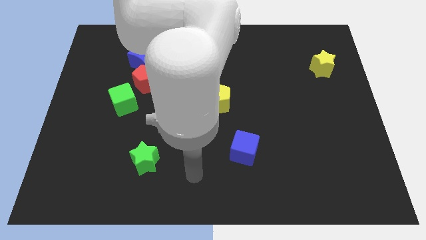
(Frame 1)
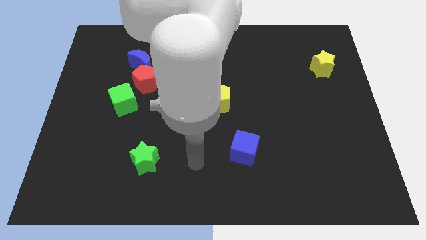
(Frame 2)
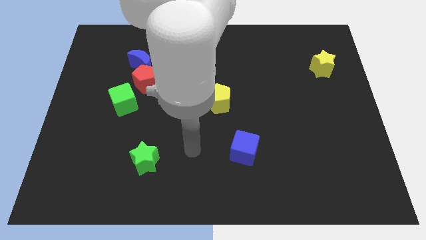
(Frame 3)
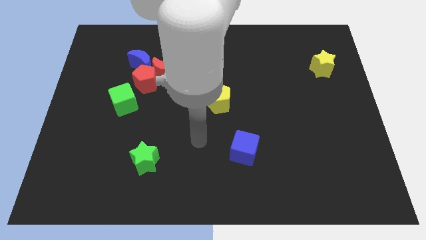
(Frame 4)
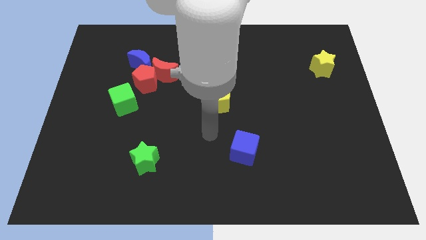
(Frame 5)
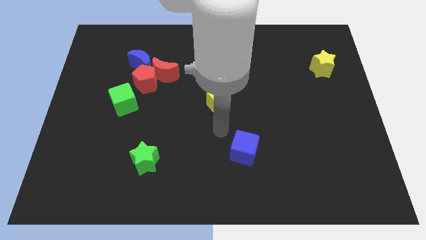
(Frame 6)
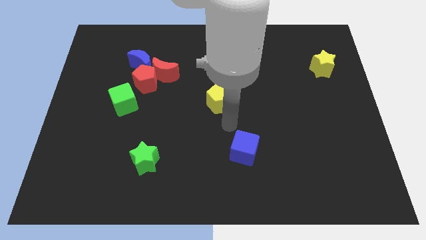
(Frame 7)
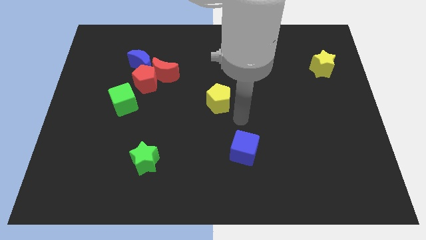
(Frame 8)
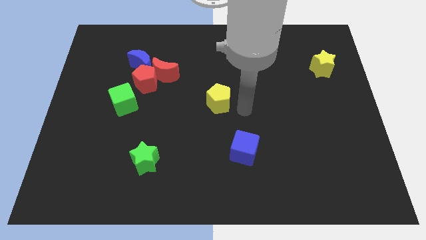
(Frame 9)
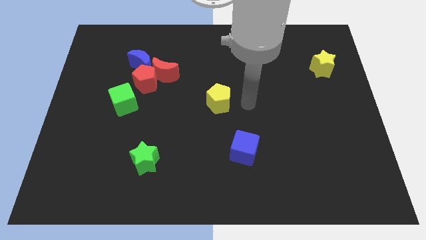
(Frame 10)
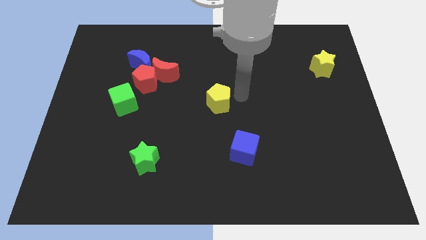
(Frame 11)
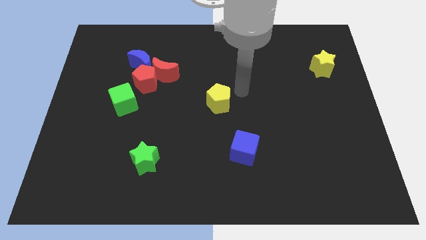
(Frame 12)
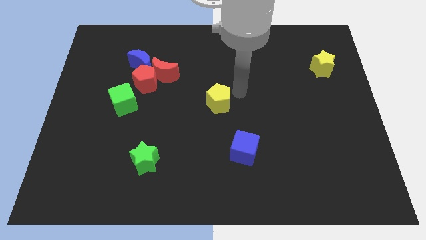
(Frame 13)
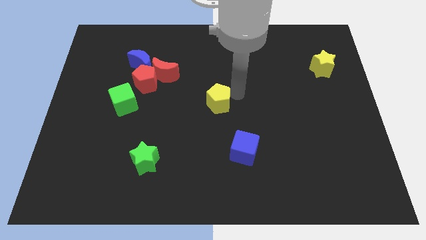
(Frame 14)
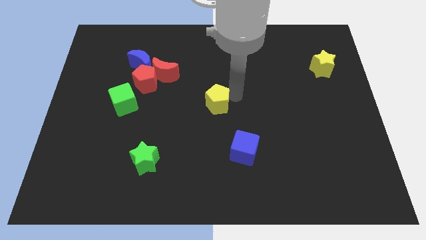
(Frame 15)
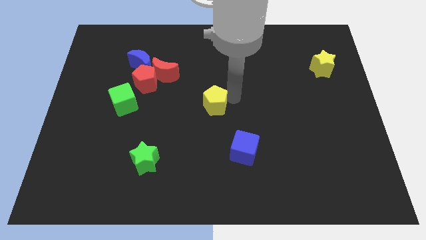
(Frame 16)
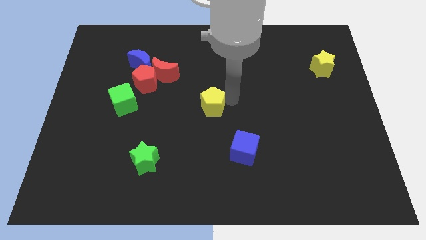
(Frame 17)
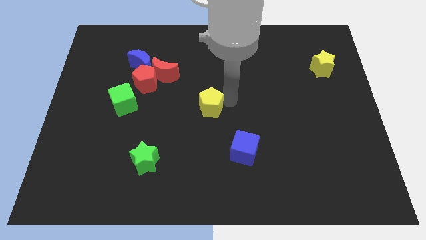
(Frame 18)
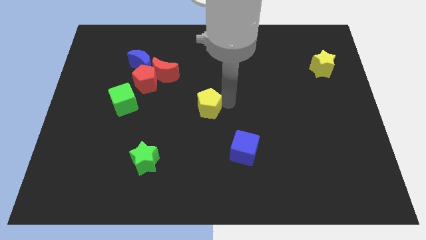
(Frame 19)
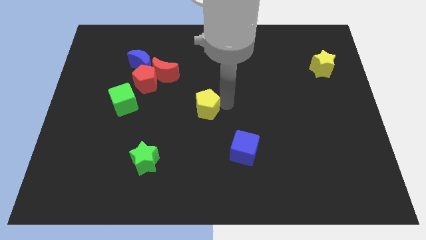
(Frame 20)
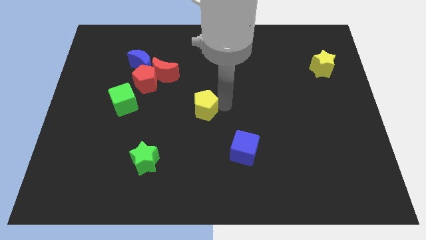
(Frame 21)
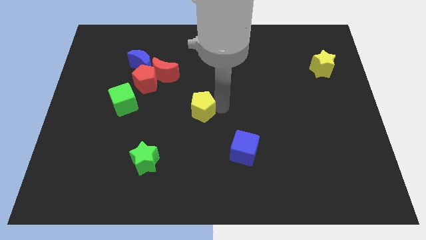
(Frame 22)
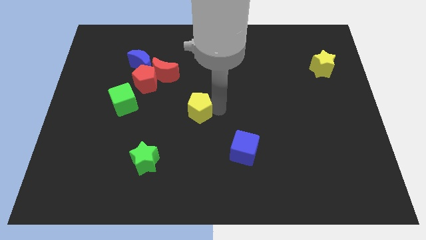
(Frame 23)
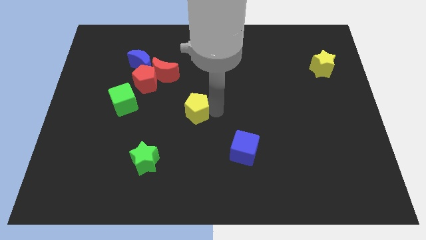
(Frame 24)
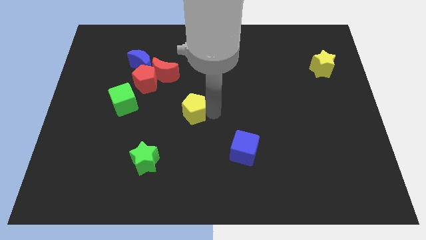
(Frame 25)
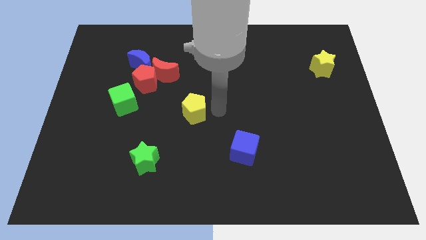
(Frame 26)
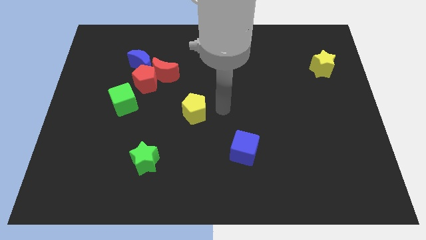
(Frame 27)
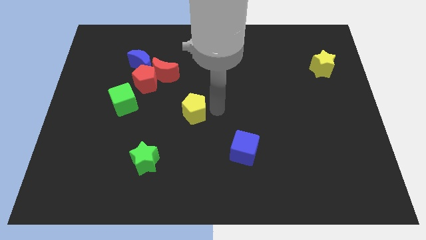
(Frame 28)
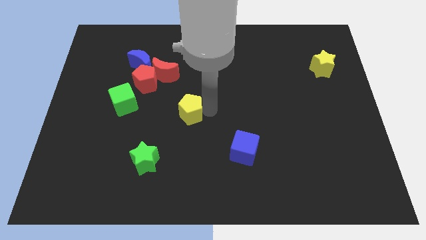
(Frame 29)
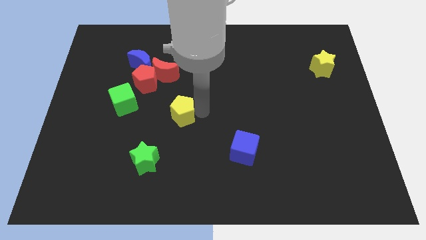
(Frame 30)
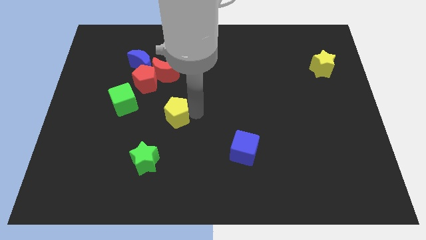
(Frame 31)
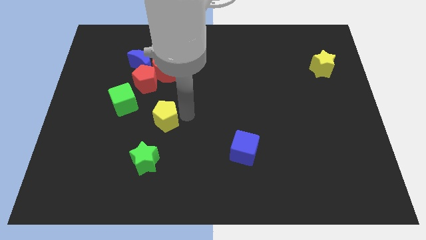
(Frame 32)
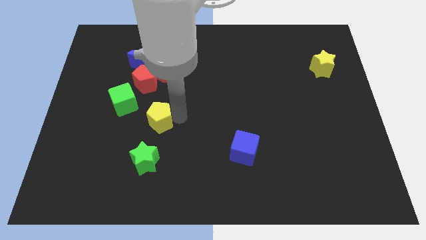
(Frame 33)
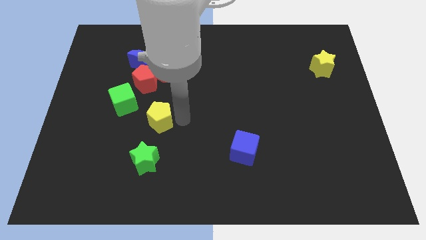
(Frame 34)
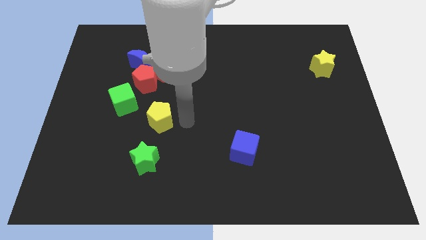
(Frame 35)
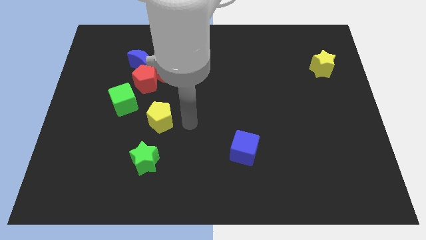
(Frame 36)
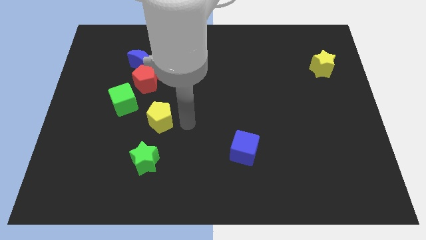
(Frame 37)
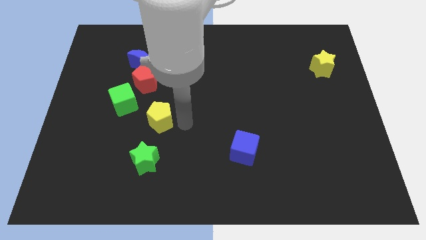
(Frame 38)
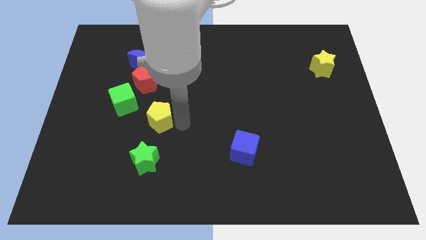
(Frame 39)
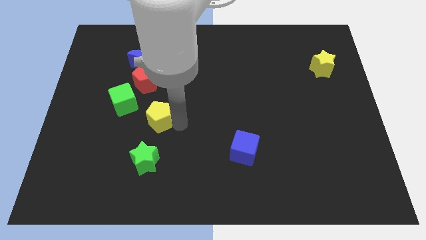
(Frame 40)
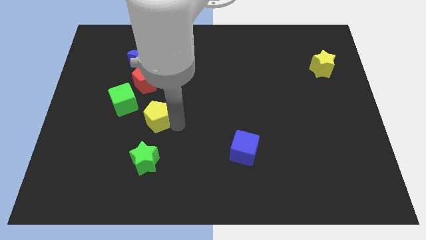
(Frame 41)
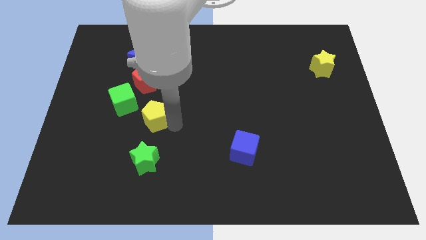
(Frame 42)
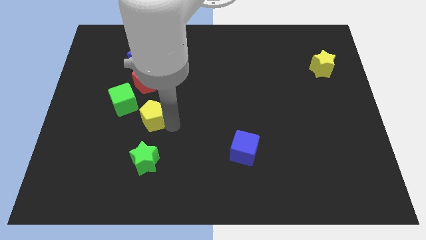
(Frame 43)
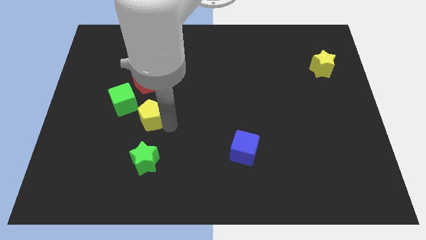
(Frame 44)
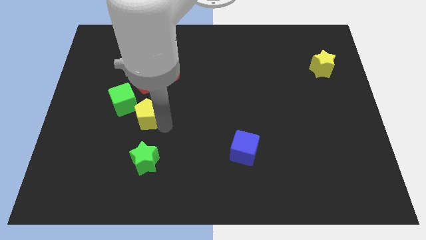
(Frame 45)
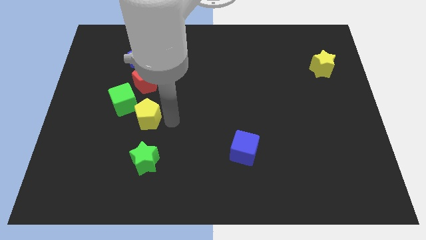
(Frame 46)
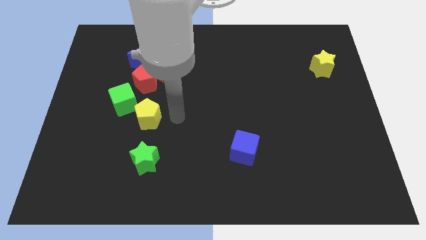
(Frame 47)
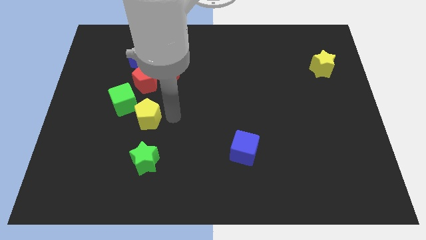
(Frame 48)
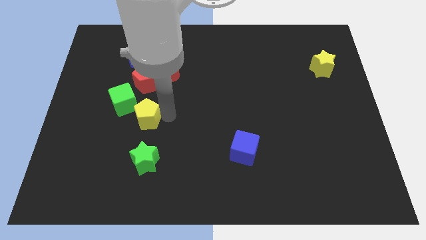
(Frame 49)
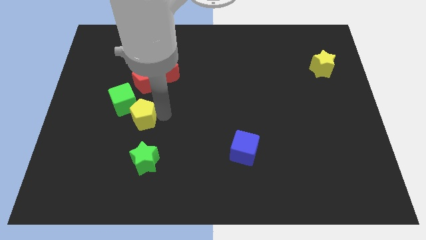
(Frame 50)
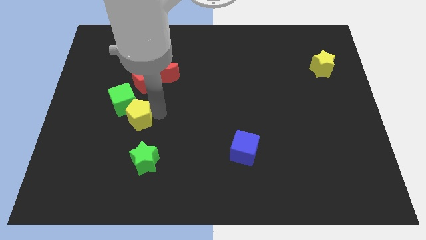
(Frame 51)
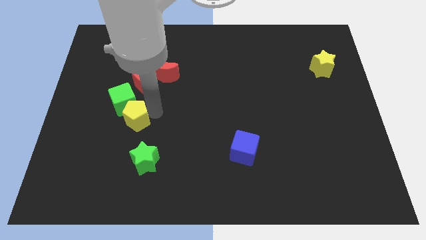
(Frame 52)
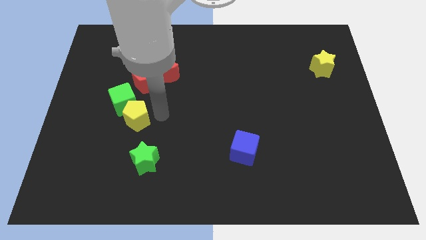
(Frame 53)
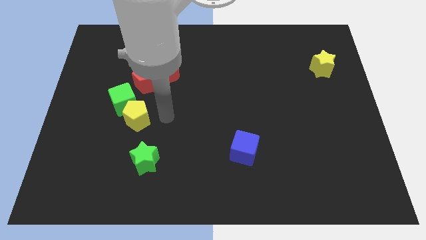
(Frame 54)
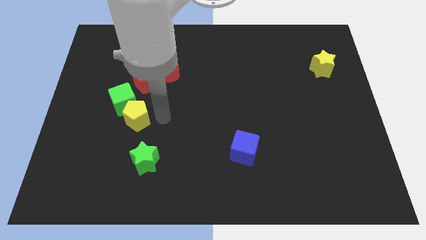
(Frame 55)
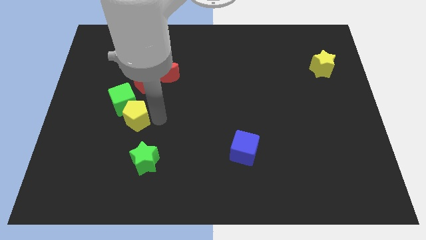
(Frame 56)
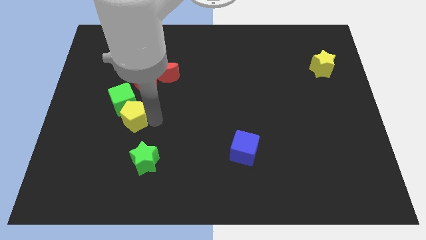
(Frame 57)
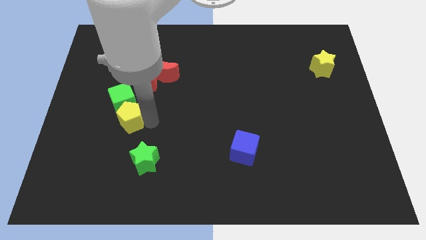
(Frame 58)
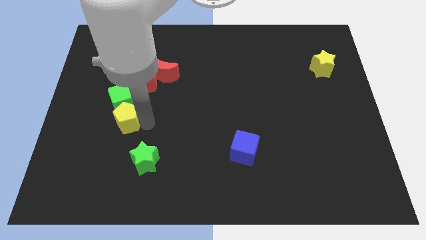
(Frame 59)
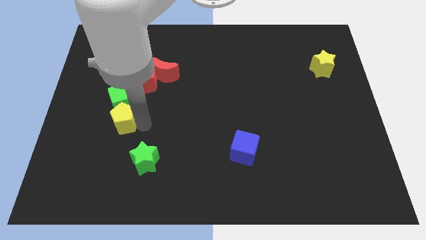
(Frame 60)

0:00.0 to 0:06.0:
put the yellow pentagon diagonally down and to the left of the green cube

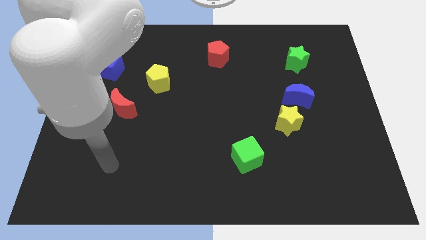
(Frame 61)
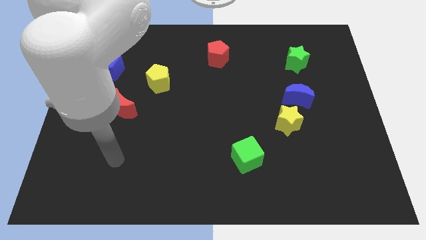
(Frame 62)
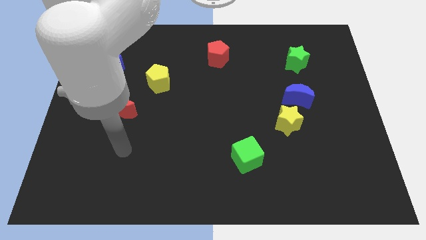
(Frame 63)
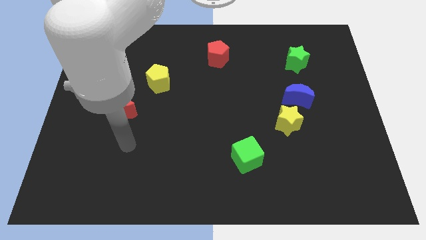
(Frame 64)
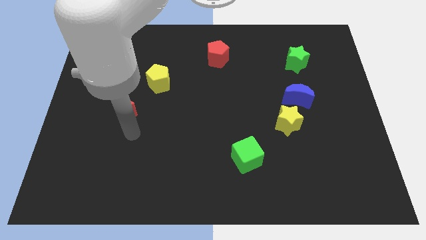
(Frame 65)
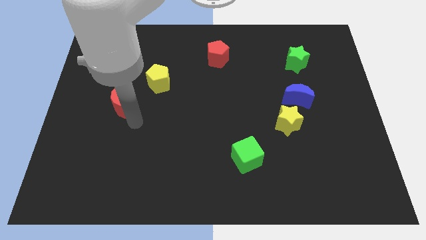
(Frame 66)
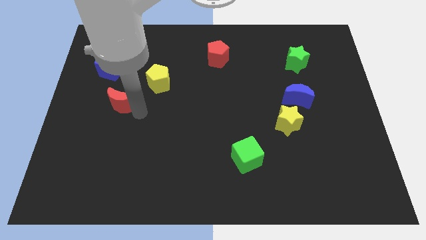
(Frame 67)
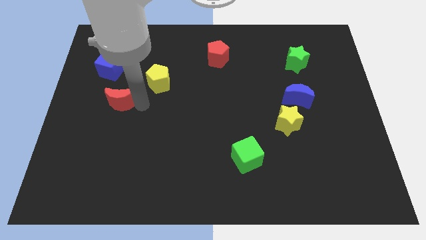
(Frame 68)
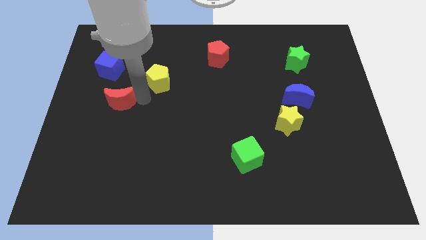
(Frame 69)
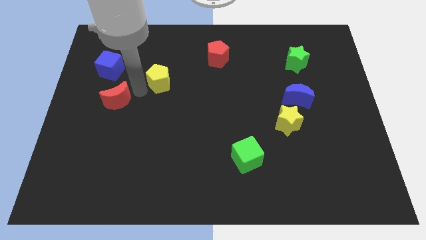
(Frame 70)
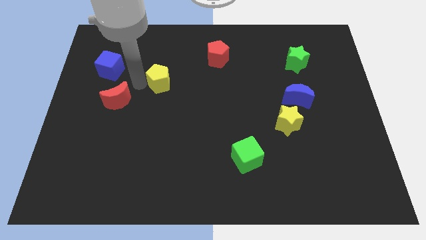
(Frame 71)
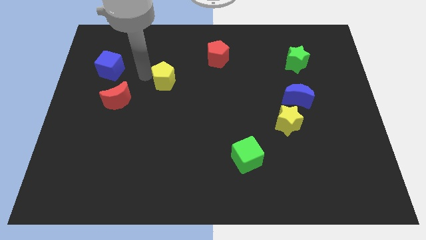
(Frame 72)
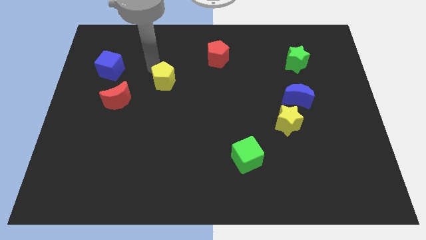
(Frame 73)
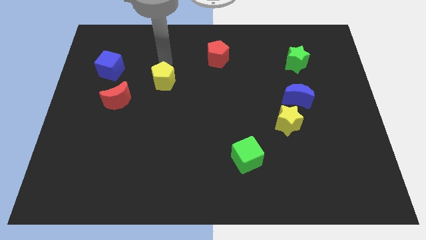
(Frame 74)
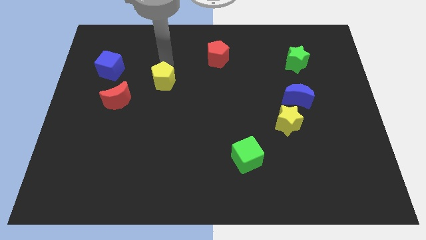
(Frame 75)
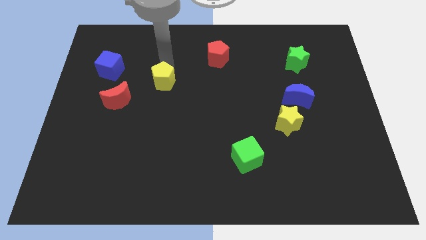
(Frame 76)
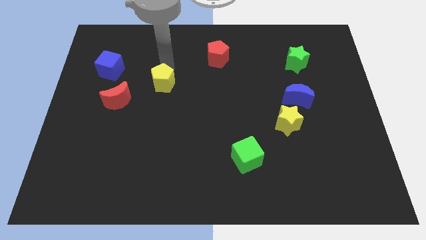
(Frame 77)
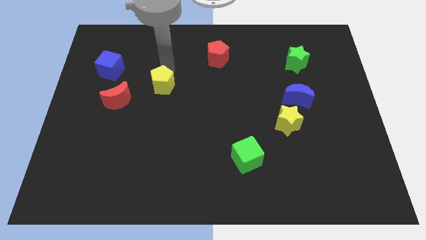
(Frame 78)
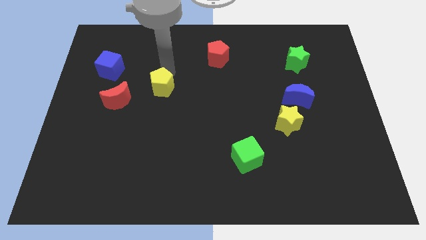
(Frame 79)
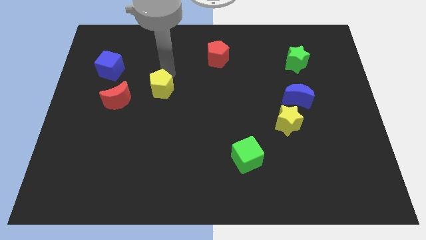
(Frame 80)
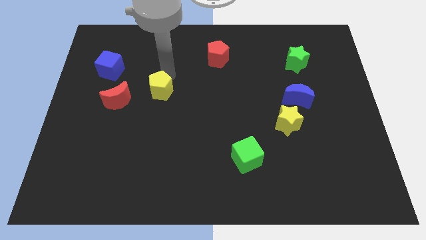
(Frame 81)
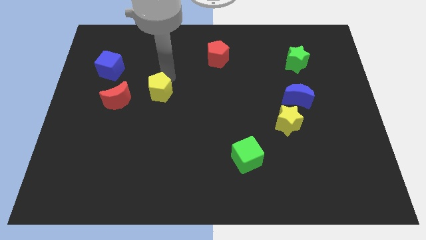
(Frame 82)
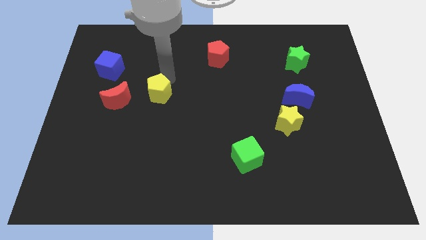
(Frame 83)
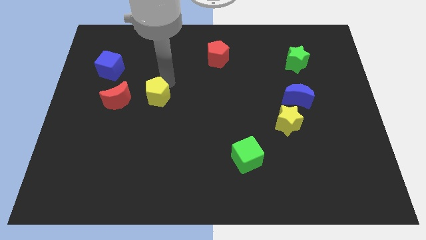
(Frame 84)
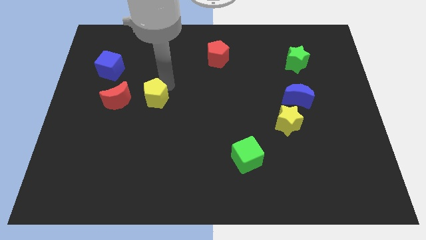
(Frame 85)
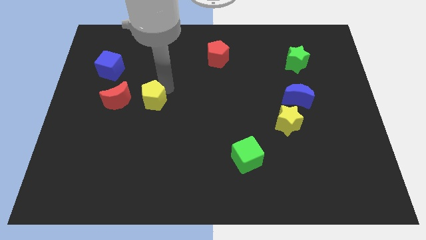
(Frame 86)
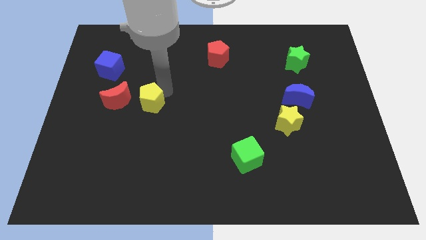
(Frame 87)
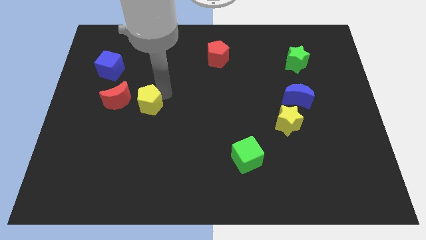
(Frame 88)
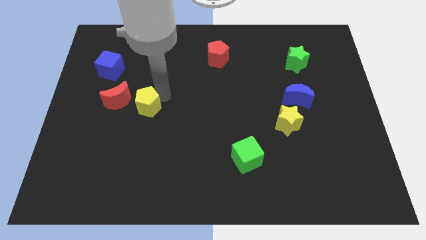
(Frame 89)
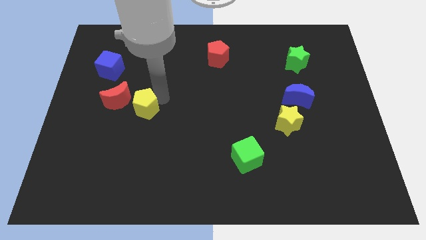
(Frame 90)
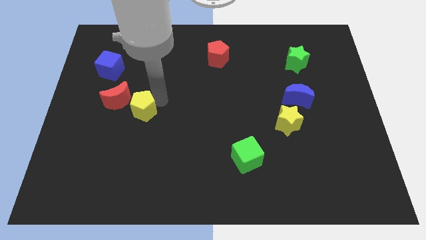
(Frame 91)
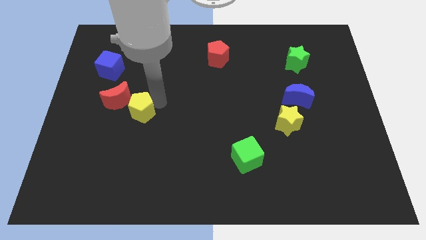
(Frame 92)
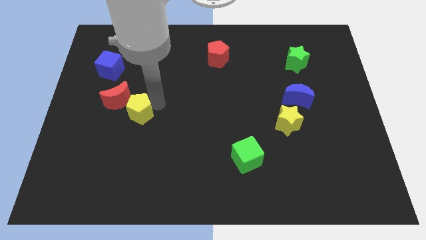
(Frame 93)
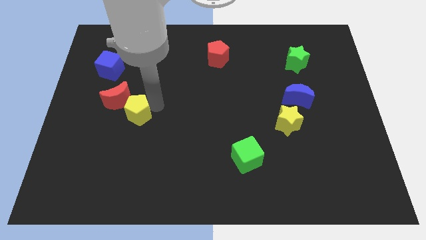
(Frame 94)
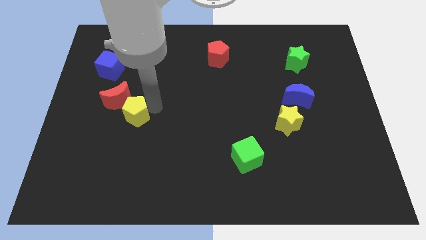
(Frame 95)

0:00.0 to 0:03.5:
slide the yellow pentagon below the red moon
